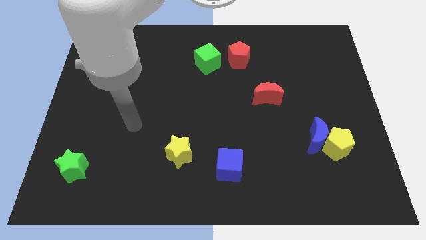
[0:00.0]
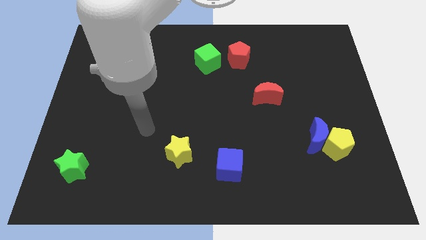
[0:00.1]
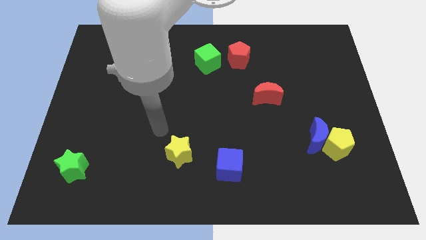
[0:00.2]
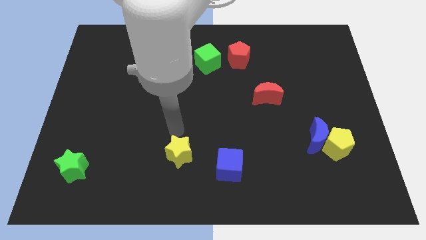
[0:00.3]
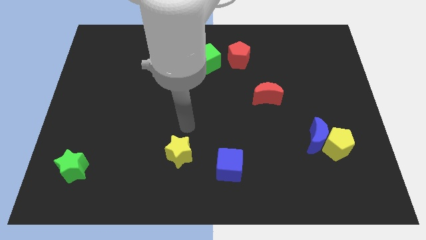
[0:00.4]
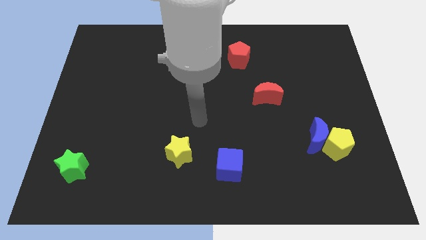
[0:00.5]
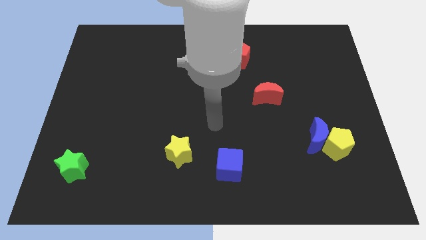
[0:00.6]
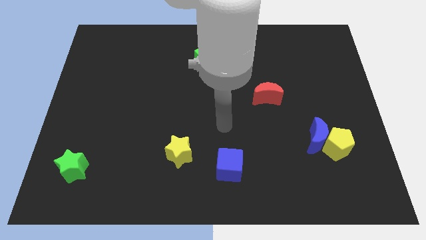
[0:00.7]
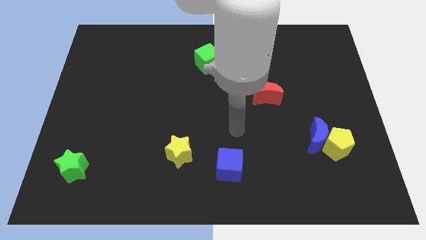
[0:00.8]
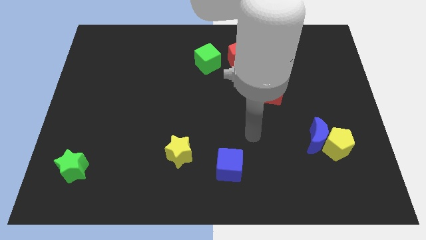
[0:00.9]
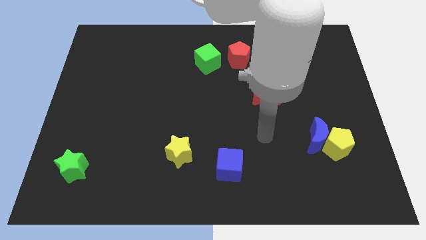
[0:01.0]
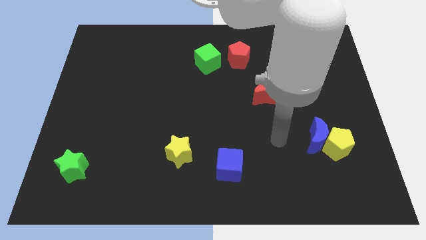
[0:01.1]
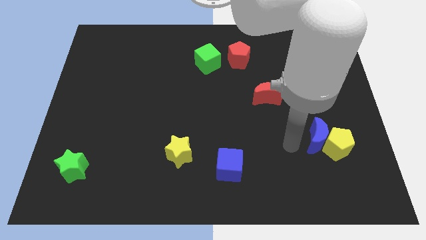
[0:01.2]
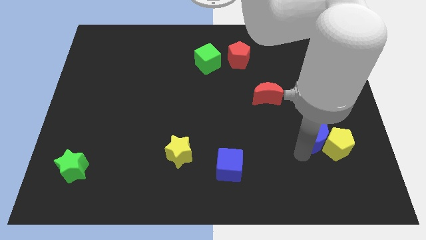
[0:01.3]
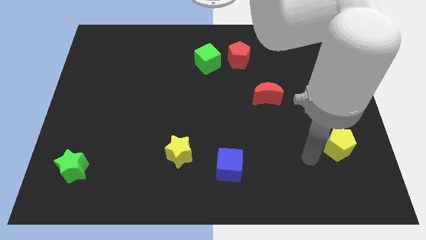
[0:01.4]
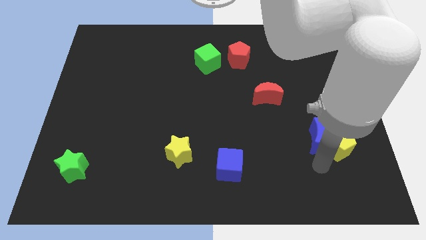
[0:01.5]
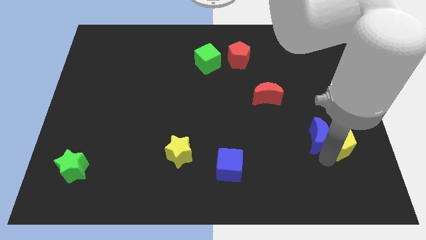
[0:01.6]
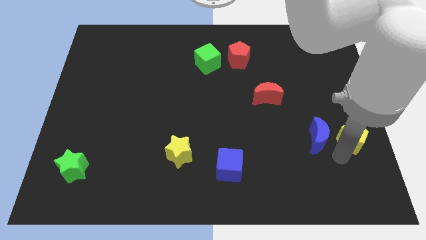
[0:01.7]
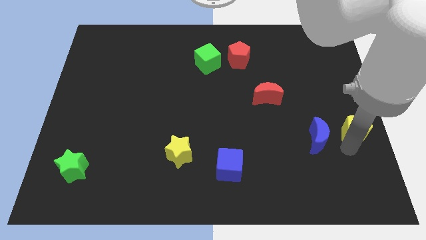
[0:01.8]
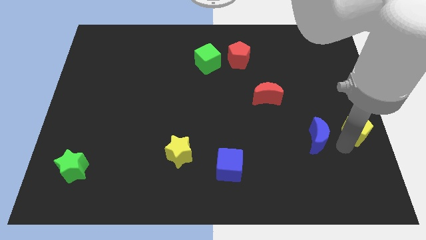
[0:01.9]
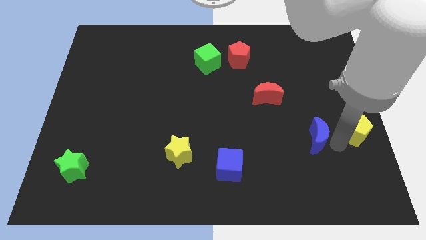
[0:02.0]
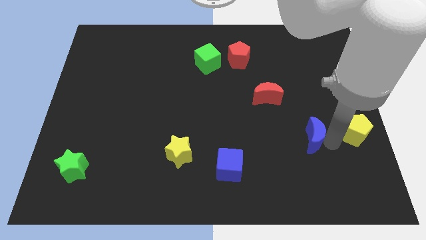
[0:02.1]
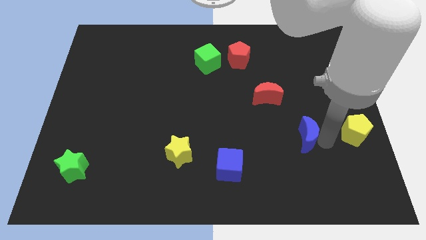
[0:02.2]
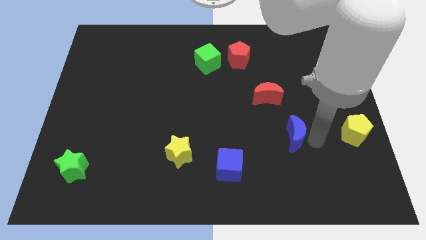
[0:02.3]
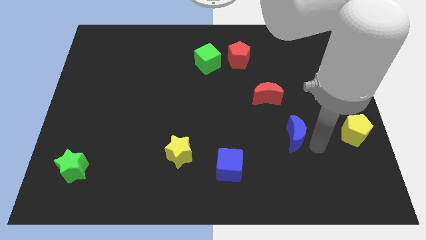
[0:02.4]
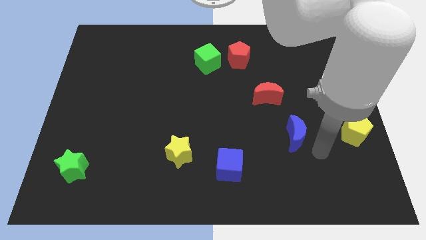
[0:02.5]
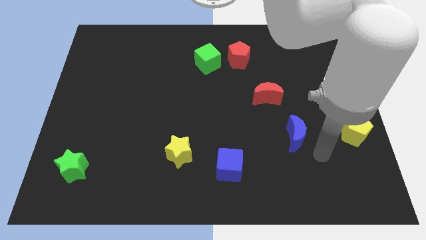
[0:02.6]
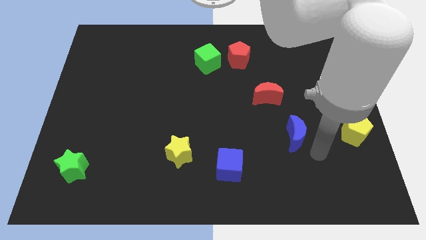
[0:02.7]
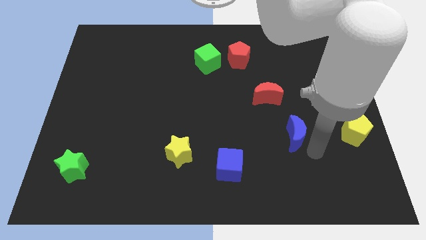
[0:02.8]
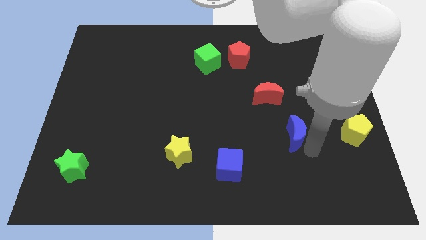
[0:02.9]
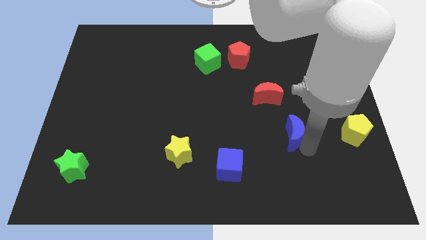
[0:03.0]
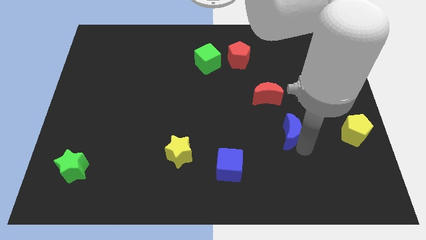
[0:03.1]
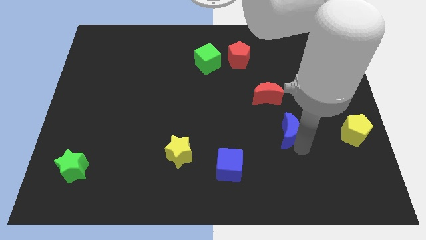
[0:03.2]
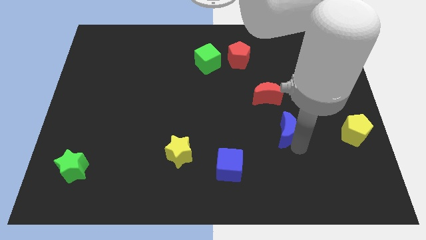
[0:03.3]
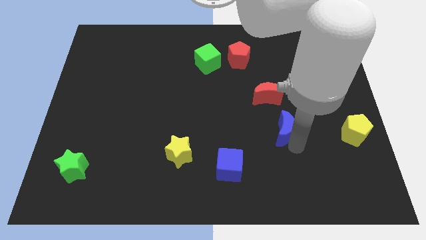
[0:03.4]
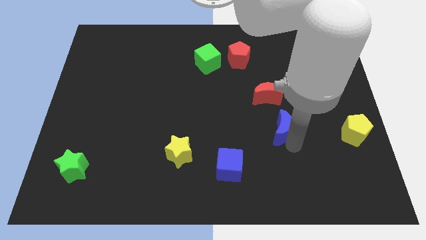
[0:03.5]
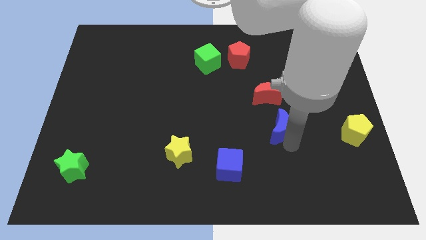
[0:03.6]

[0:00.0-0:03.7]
slide the blue moon slightly up and left

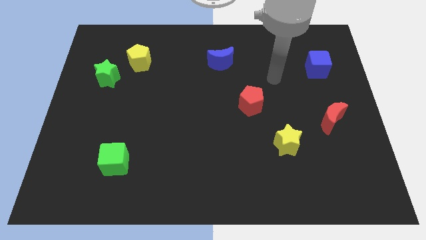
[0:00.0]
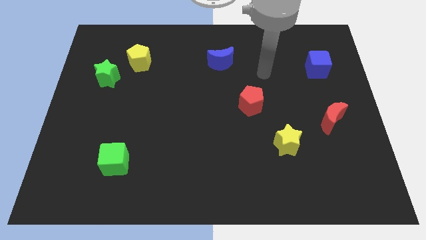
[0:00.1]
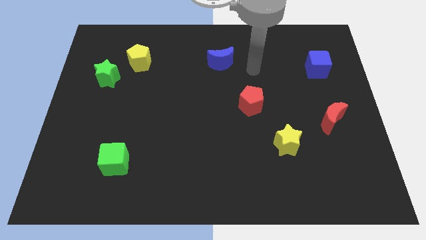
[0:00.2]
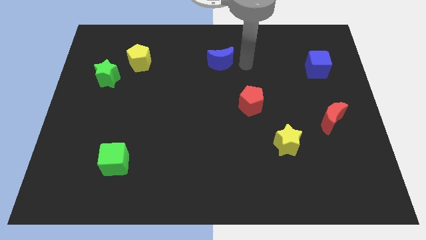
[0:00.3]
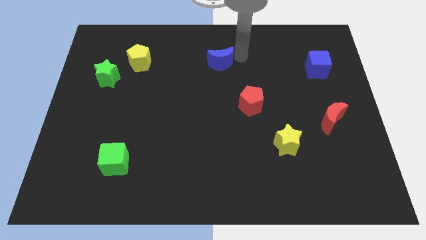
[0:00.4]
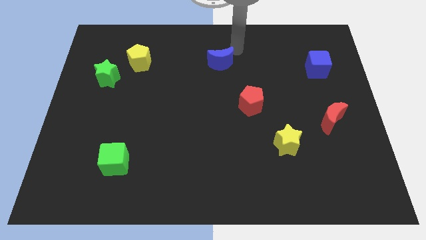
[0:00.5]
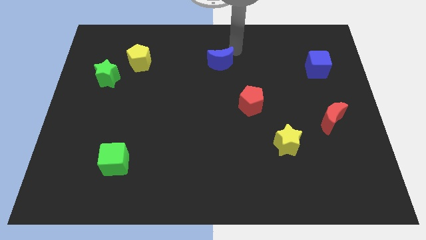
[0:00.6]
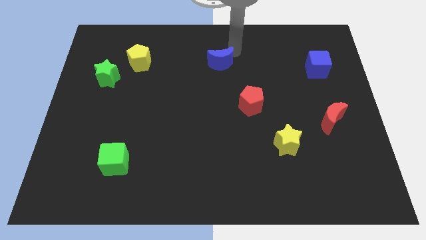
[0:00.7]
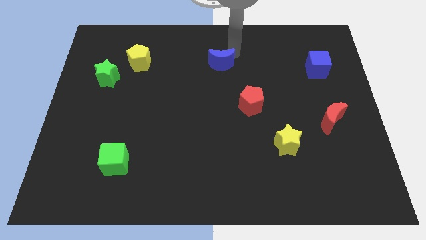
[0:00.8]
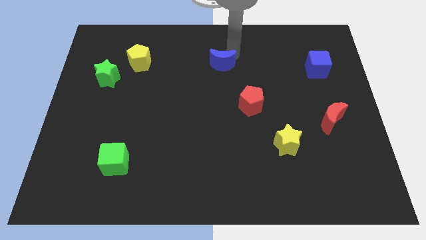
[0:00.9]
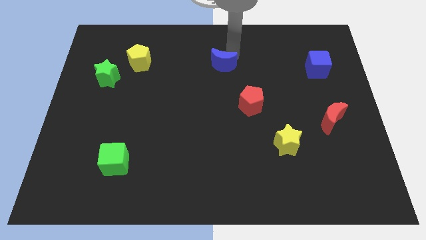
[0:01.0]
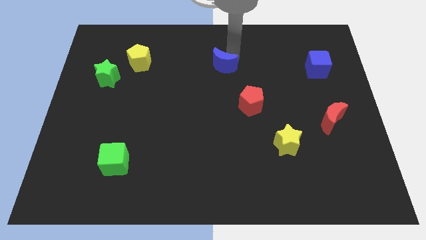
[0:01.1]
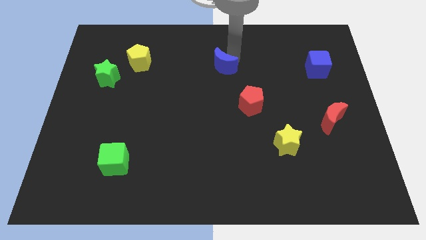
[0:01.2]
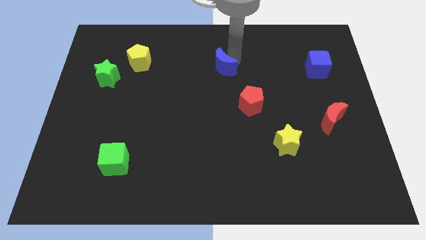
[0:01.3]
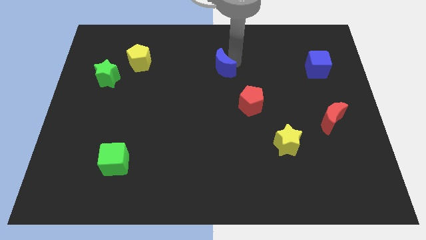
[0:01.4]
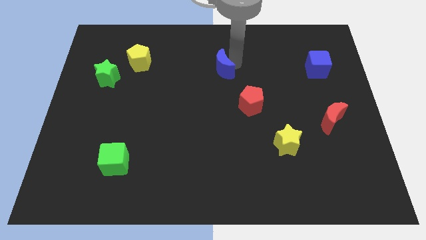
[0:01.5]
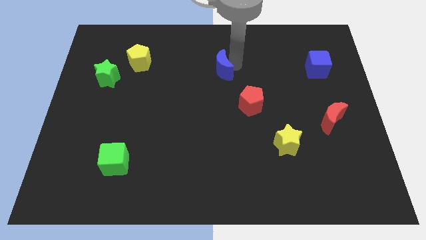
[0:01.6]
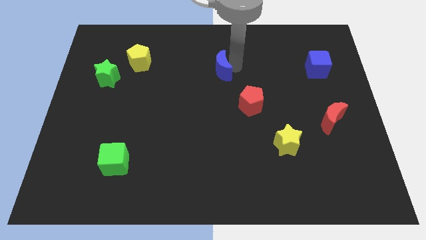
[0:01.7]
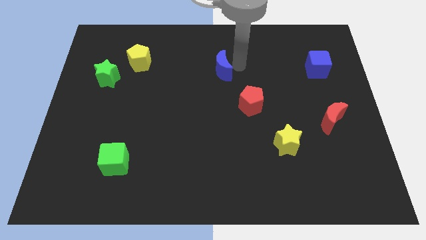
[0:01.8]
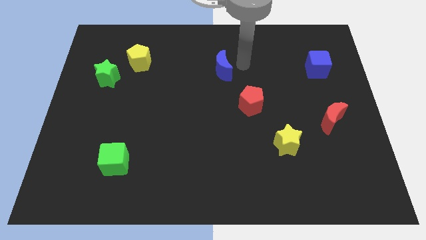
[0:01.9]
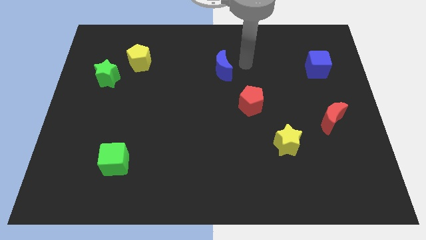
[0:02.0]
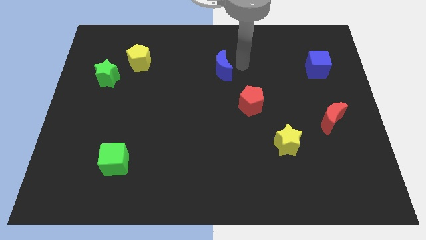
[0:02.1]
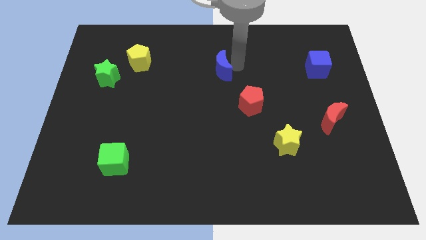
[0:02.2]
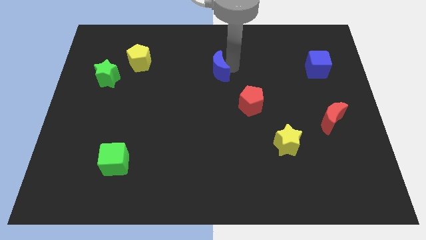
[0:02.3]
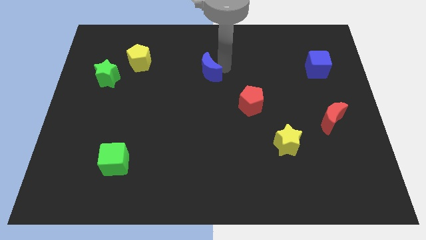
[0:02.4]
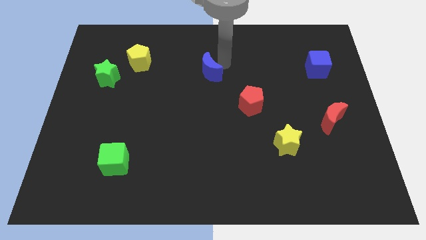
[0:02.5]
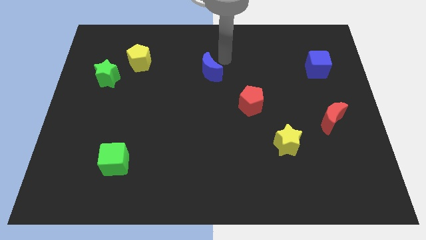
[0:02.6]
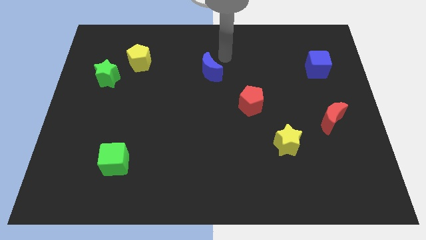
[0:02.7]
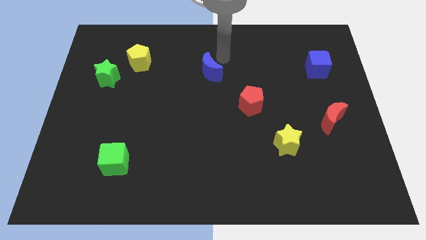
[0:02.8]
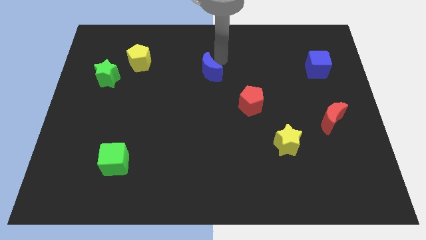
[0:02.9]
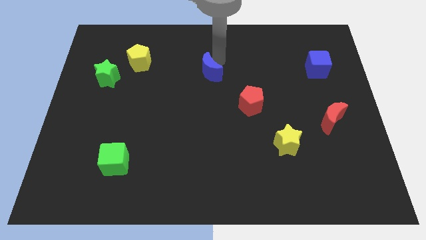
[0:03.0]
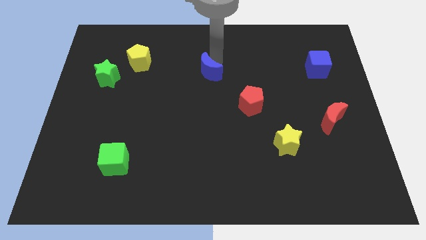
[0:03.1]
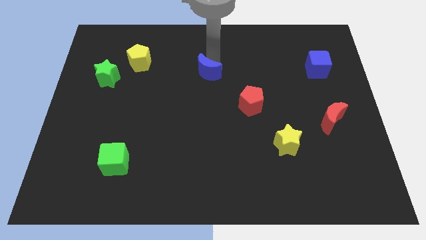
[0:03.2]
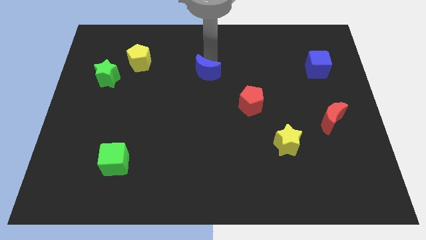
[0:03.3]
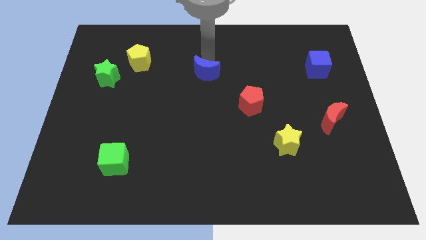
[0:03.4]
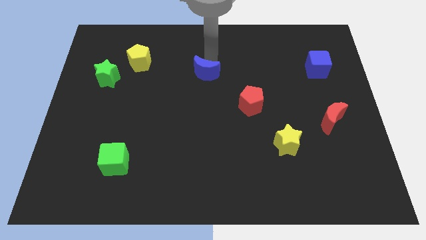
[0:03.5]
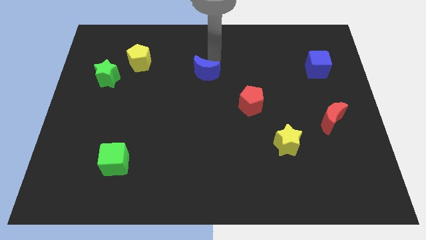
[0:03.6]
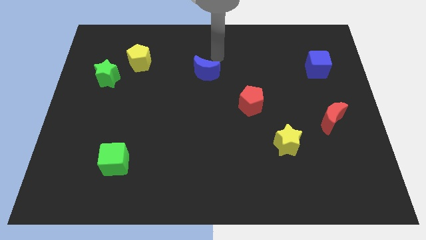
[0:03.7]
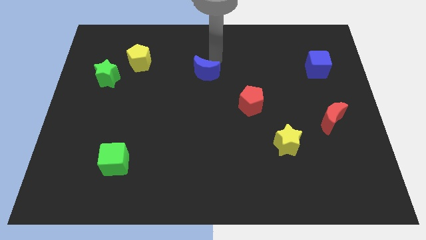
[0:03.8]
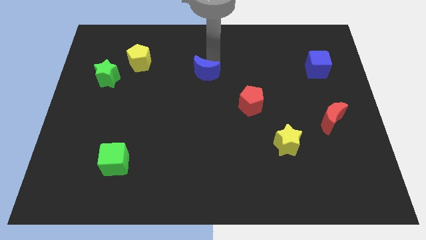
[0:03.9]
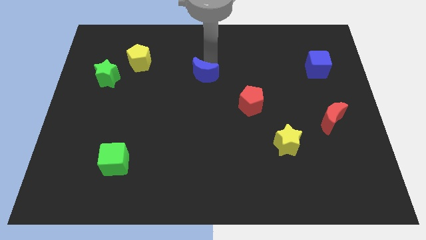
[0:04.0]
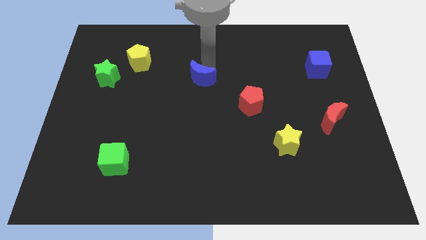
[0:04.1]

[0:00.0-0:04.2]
slightly push the blue moon diagonally down and to the left
